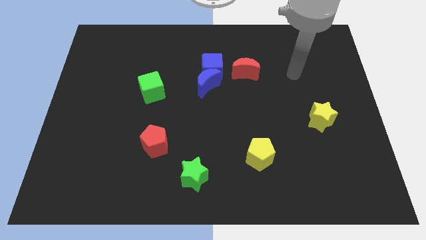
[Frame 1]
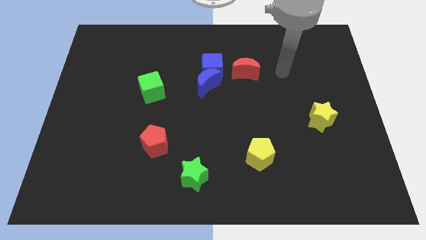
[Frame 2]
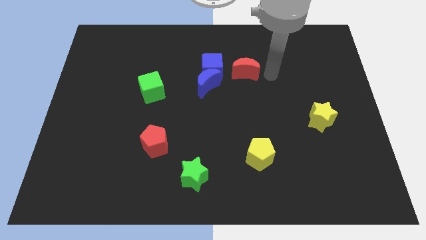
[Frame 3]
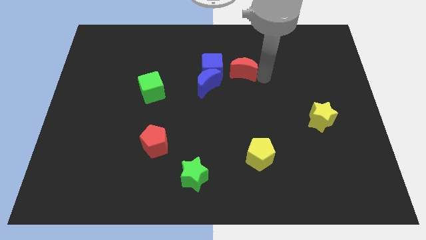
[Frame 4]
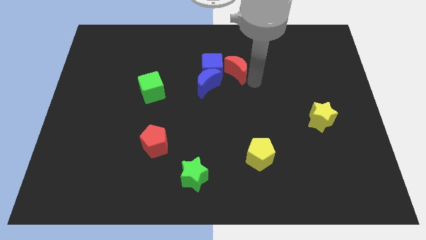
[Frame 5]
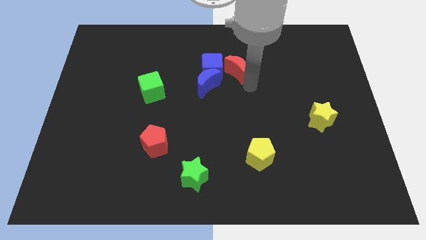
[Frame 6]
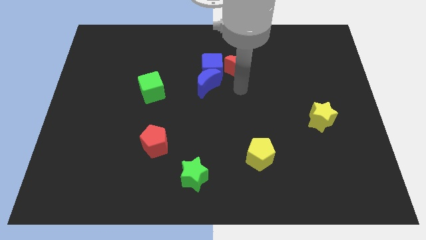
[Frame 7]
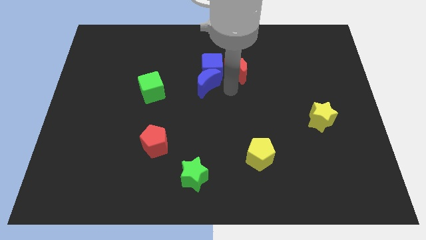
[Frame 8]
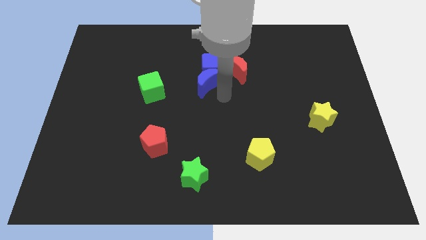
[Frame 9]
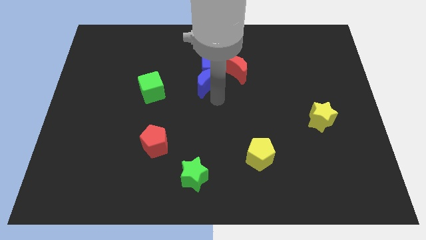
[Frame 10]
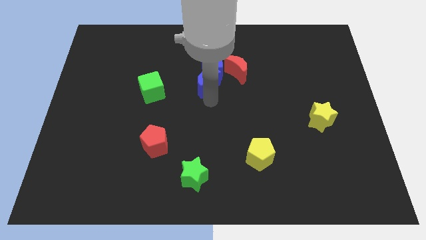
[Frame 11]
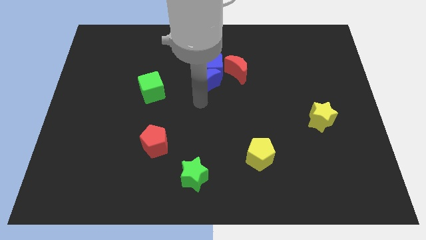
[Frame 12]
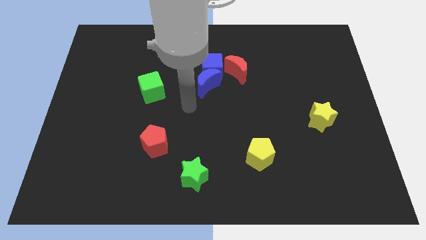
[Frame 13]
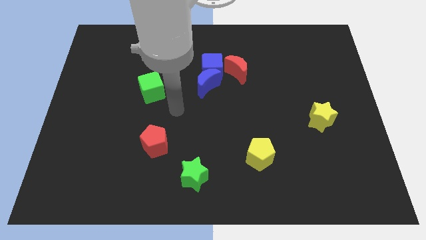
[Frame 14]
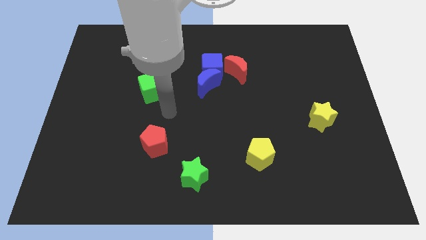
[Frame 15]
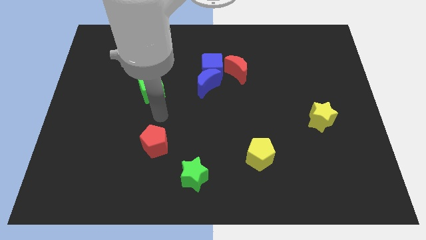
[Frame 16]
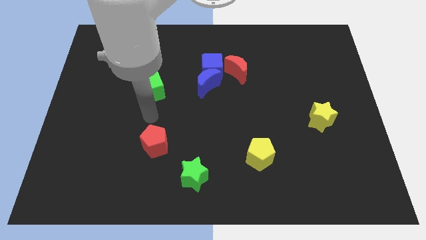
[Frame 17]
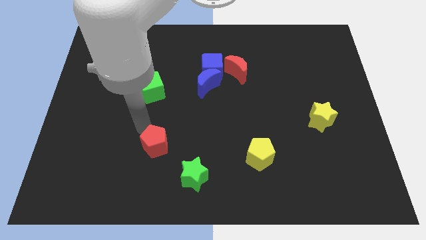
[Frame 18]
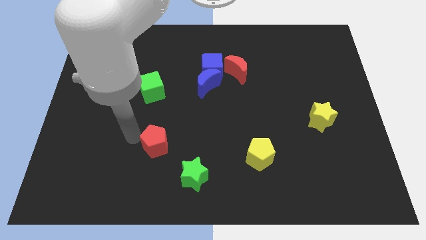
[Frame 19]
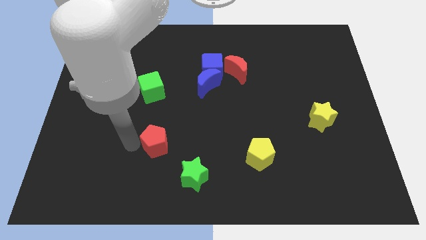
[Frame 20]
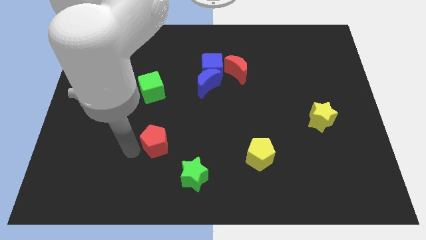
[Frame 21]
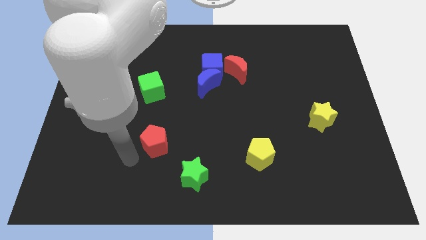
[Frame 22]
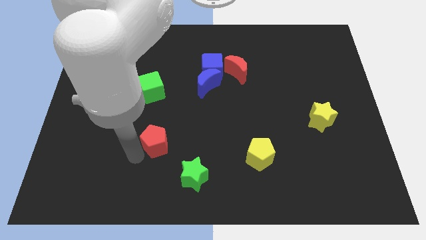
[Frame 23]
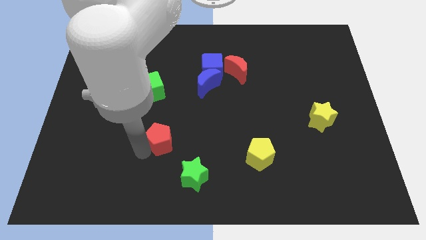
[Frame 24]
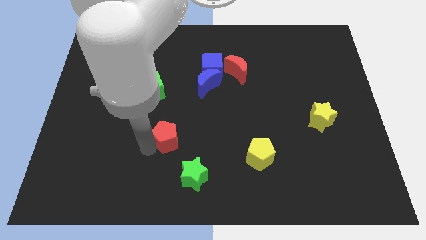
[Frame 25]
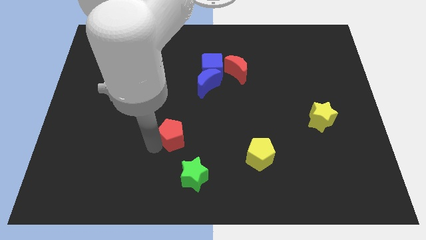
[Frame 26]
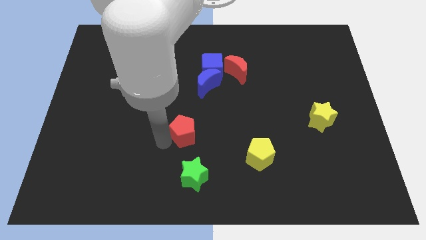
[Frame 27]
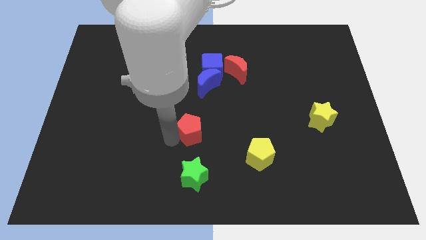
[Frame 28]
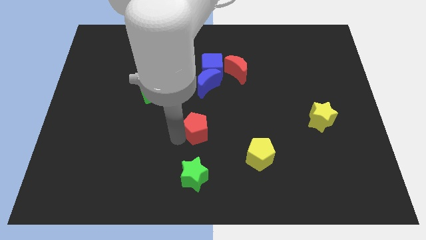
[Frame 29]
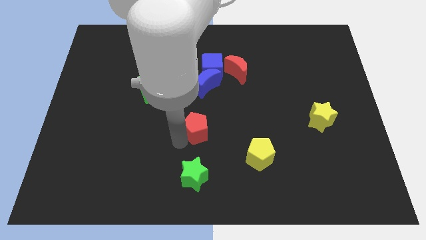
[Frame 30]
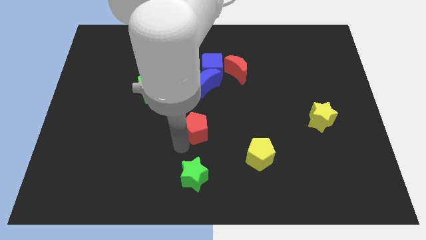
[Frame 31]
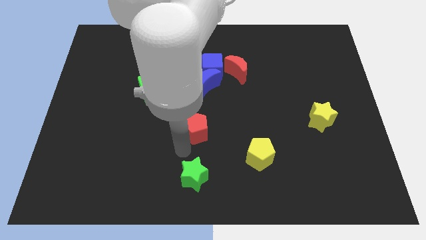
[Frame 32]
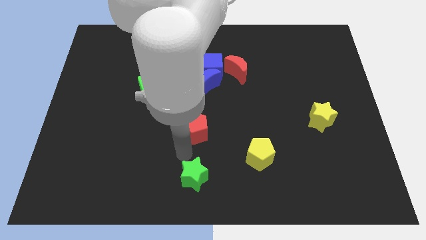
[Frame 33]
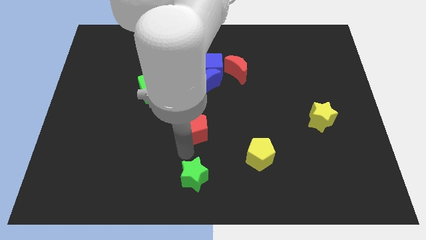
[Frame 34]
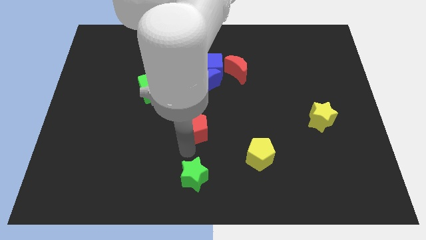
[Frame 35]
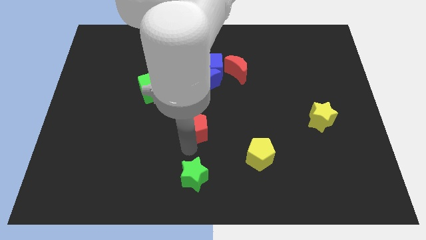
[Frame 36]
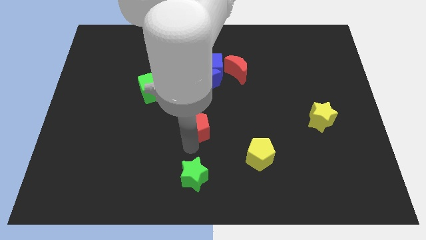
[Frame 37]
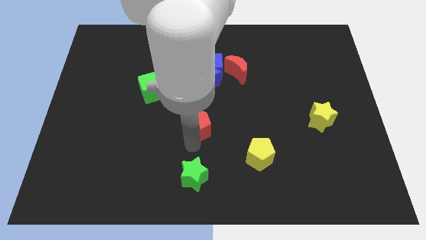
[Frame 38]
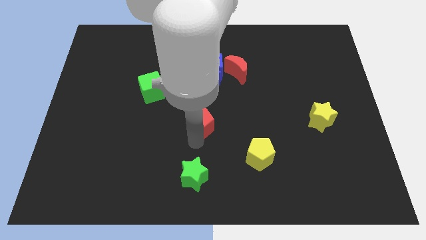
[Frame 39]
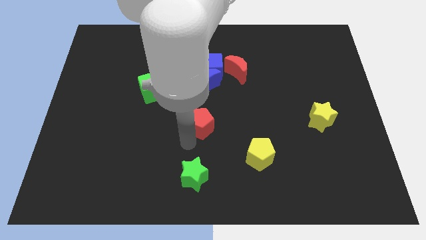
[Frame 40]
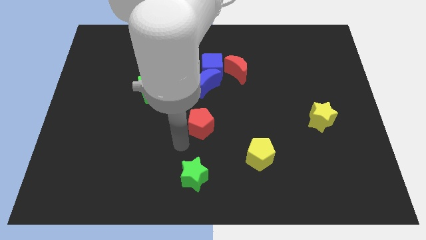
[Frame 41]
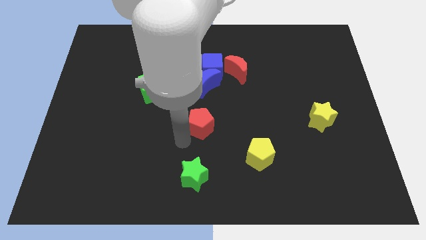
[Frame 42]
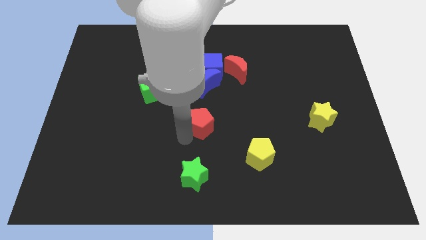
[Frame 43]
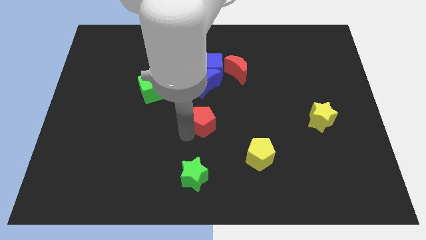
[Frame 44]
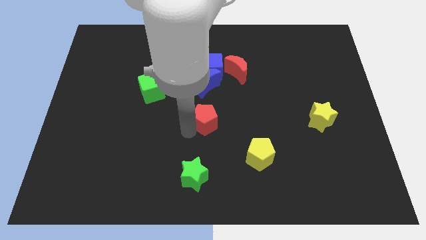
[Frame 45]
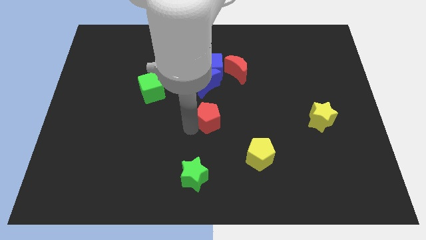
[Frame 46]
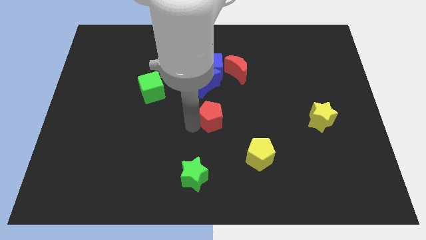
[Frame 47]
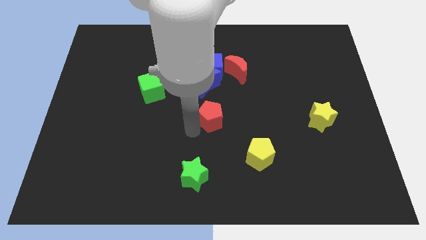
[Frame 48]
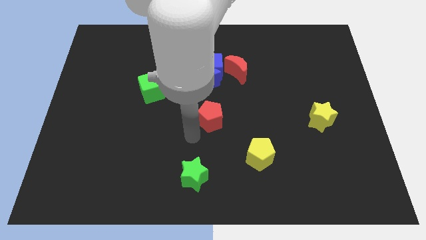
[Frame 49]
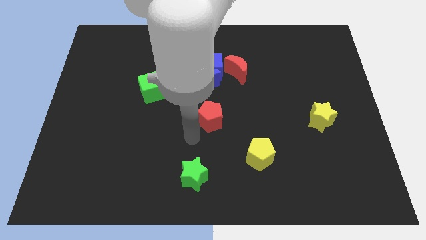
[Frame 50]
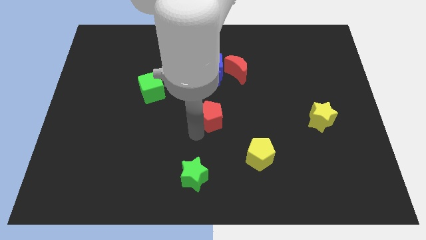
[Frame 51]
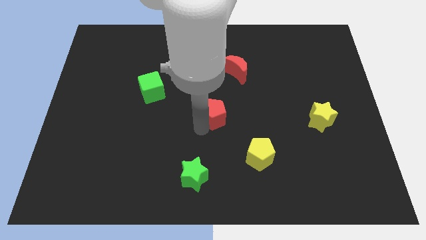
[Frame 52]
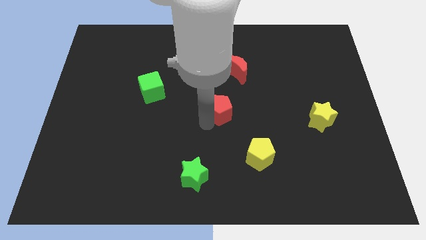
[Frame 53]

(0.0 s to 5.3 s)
slide the red pentagon to the bottom right side of the blue moon

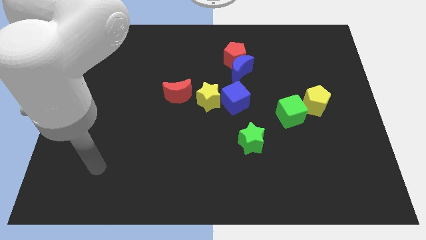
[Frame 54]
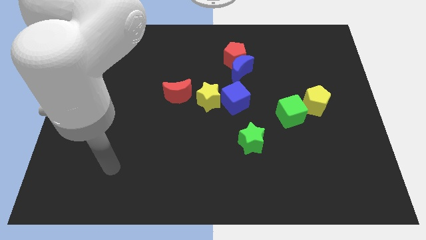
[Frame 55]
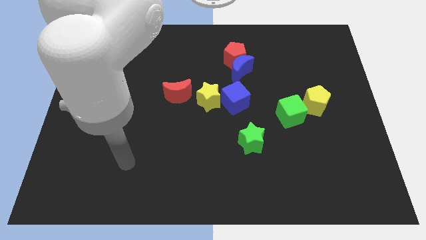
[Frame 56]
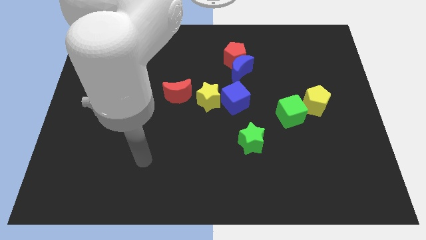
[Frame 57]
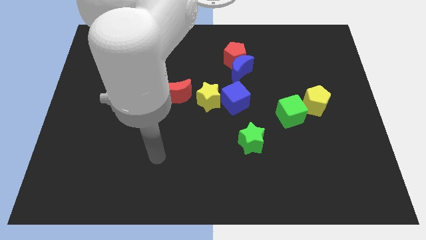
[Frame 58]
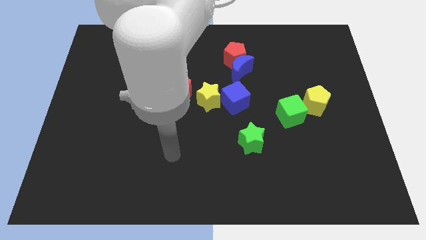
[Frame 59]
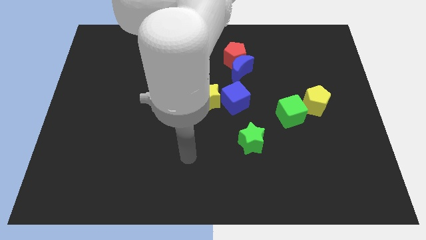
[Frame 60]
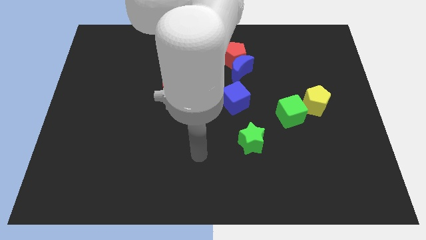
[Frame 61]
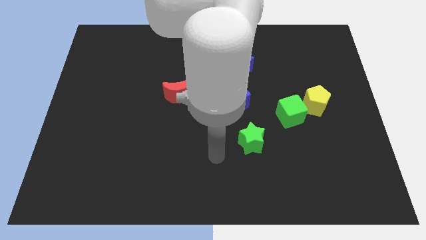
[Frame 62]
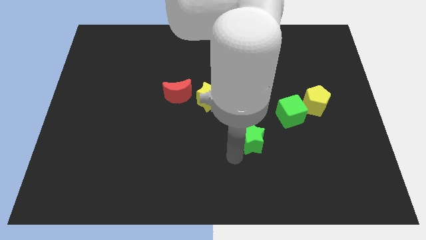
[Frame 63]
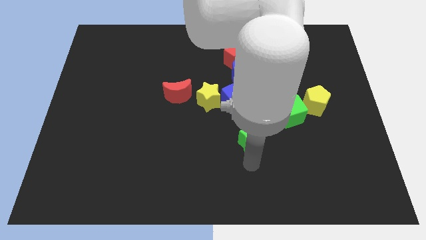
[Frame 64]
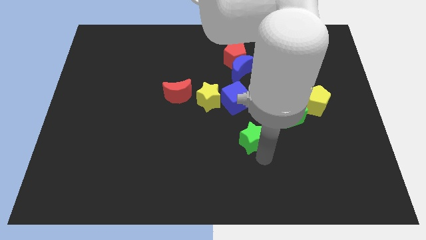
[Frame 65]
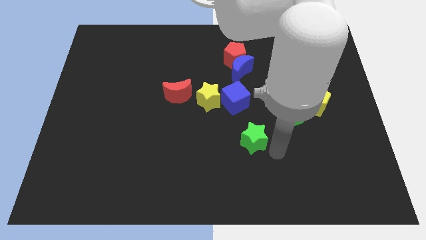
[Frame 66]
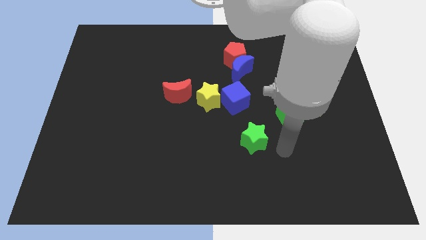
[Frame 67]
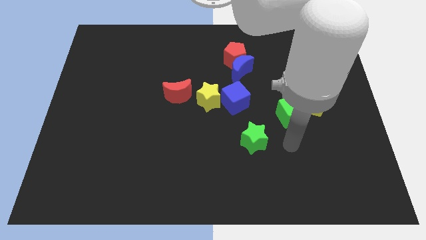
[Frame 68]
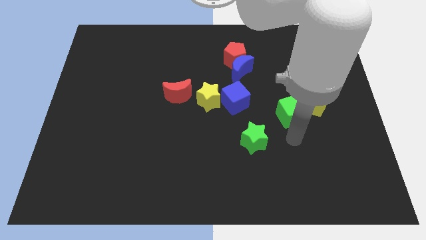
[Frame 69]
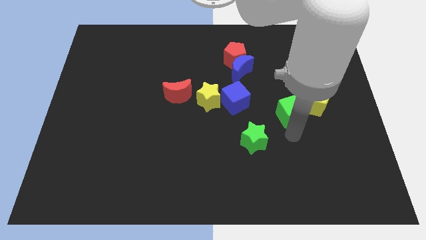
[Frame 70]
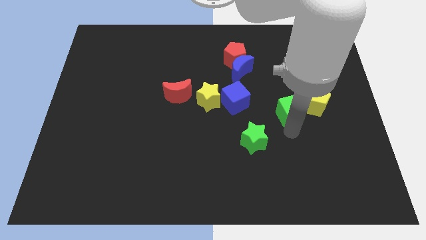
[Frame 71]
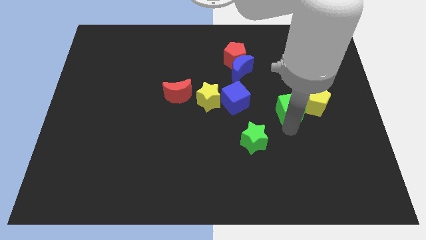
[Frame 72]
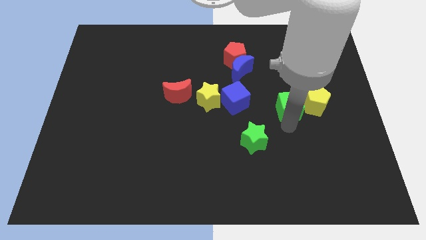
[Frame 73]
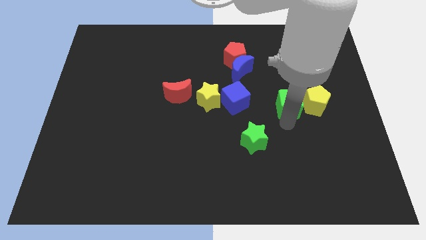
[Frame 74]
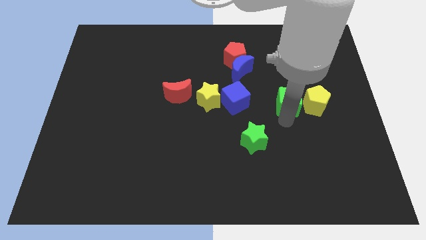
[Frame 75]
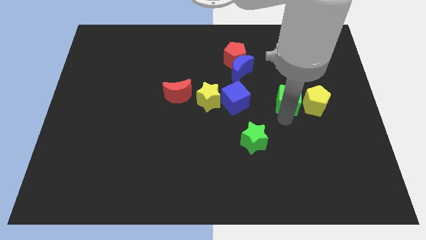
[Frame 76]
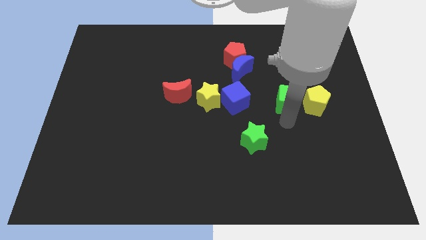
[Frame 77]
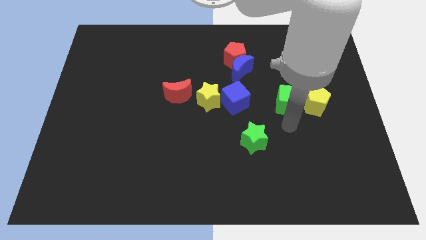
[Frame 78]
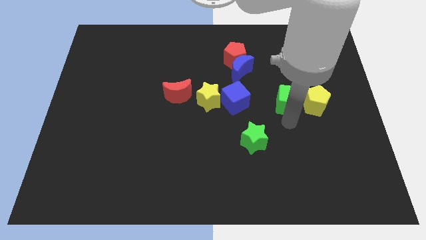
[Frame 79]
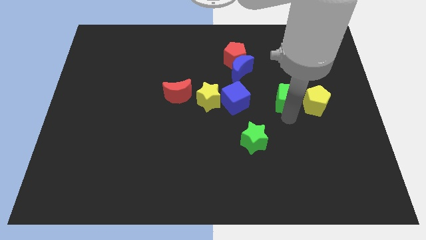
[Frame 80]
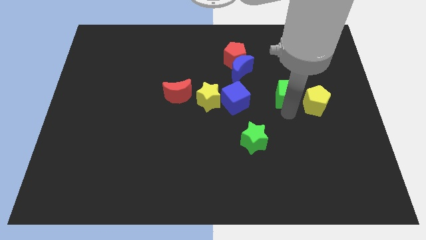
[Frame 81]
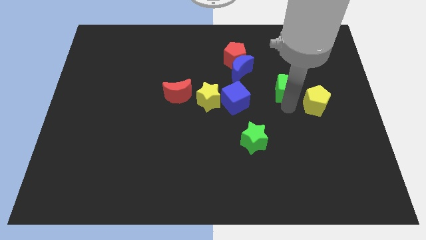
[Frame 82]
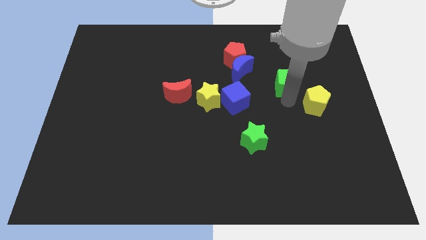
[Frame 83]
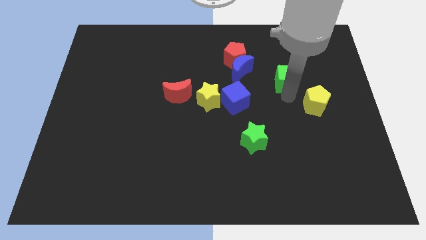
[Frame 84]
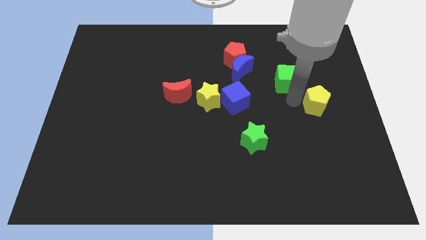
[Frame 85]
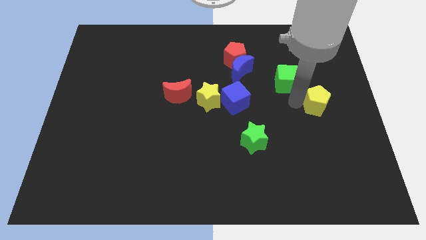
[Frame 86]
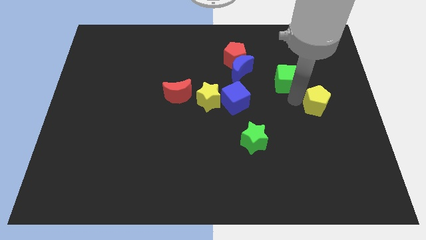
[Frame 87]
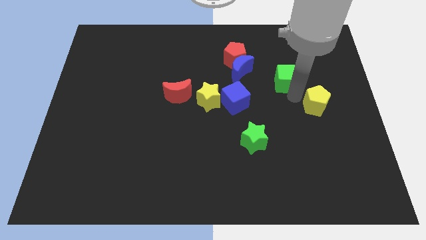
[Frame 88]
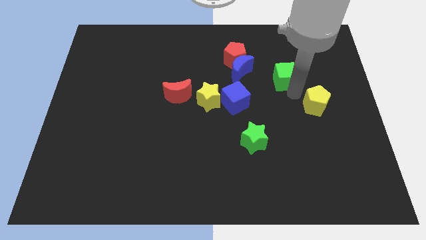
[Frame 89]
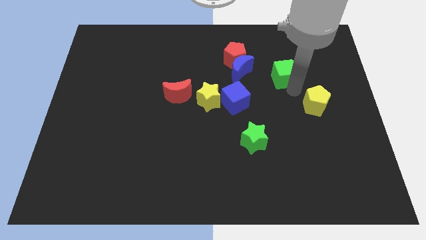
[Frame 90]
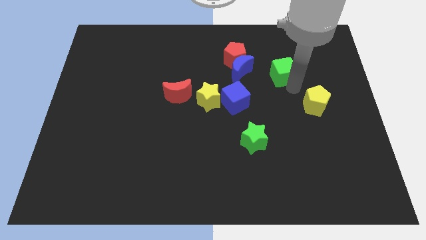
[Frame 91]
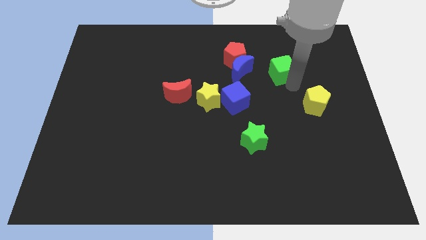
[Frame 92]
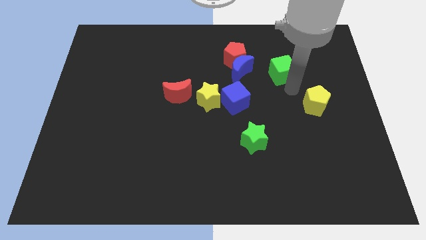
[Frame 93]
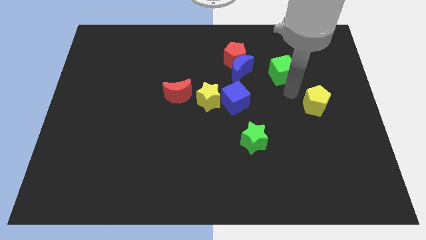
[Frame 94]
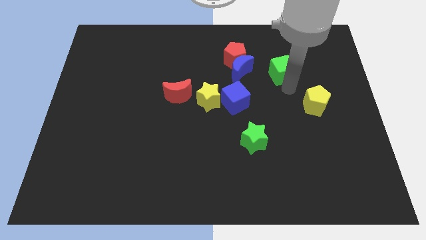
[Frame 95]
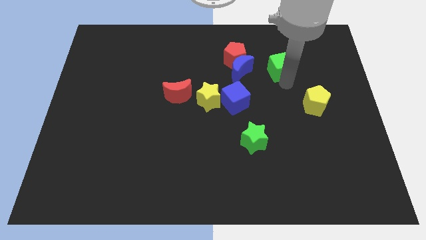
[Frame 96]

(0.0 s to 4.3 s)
put the green cube right of the red pentagon
